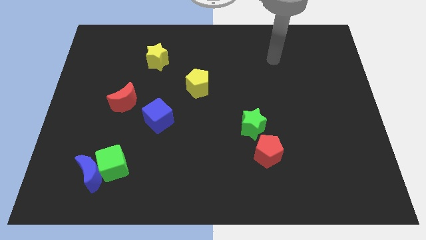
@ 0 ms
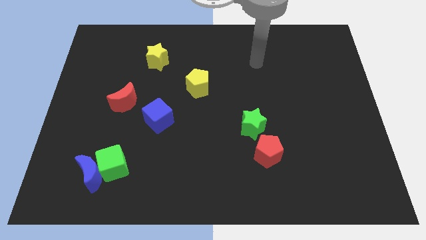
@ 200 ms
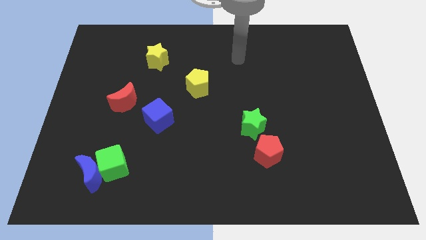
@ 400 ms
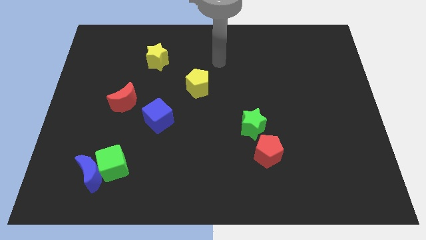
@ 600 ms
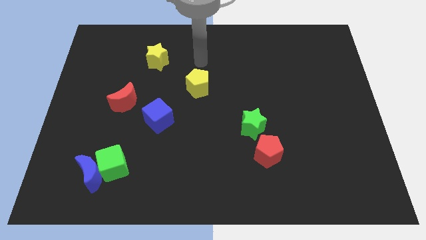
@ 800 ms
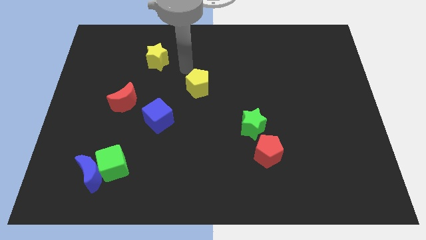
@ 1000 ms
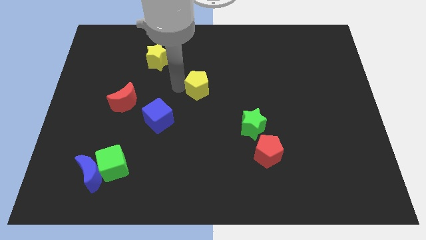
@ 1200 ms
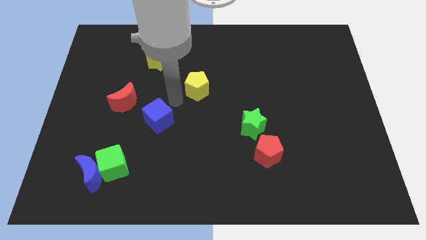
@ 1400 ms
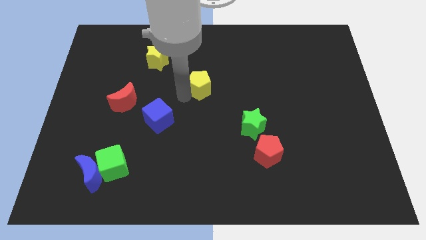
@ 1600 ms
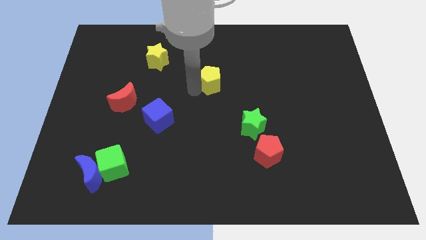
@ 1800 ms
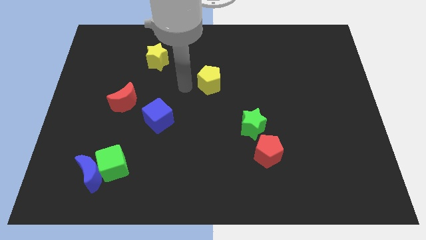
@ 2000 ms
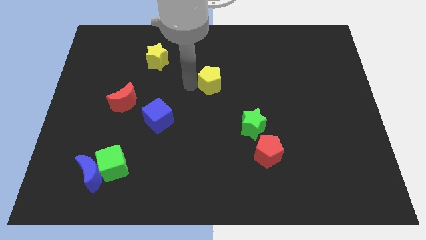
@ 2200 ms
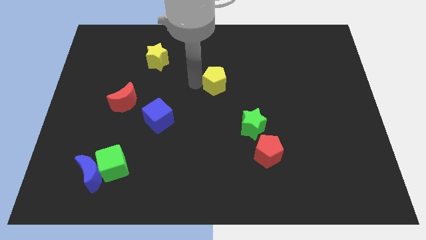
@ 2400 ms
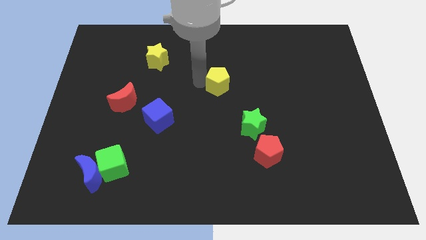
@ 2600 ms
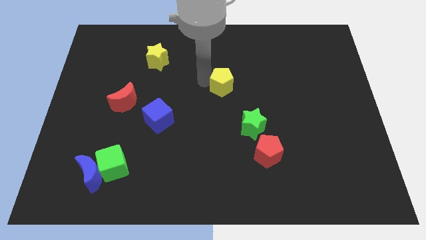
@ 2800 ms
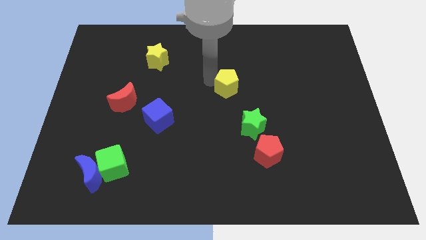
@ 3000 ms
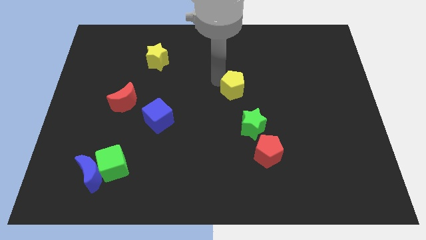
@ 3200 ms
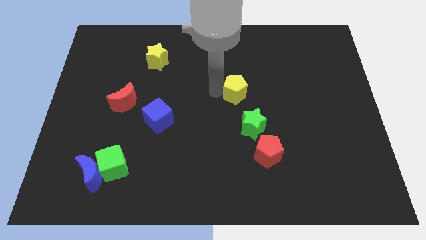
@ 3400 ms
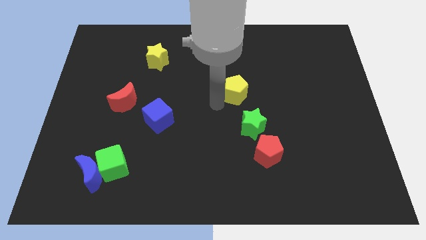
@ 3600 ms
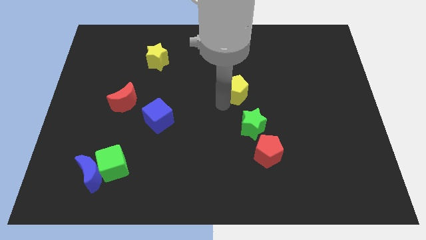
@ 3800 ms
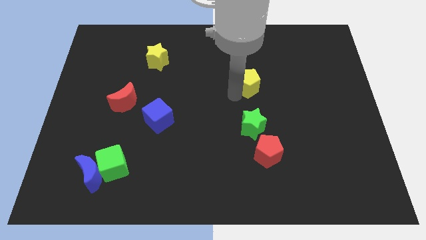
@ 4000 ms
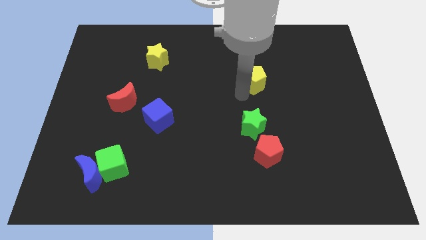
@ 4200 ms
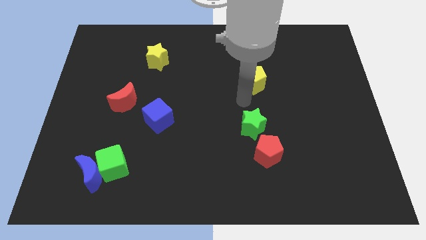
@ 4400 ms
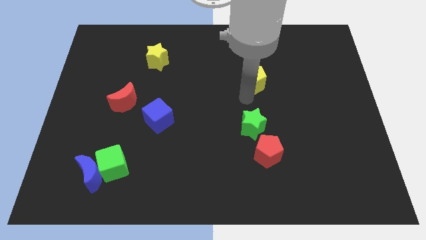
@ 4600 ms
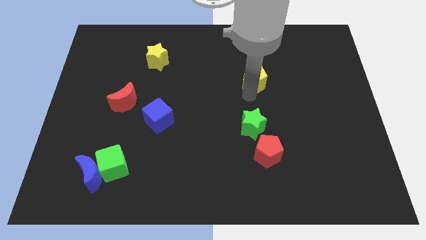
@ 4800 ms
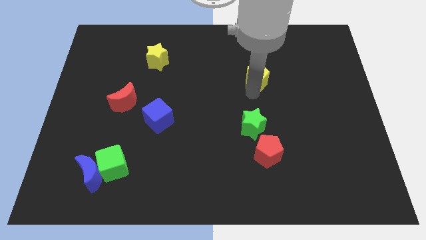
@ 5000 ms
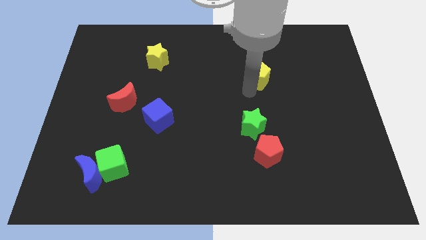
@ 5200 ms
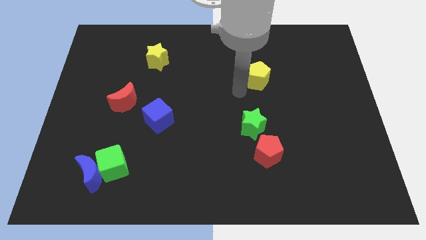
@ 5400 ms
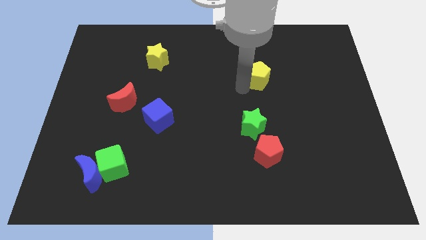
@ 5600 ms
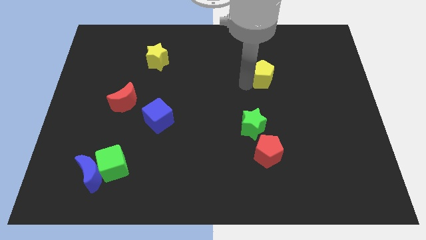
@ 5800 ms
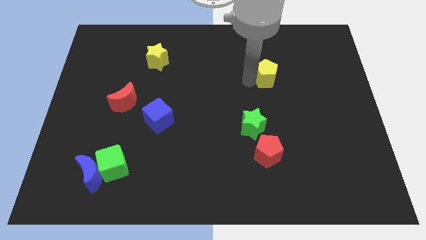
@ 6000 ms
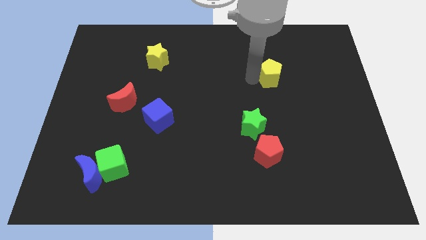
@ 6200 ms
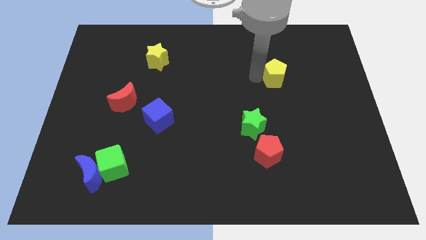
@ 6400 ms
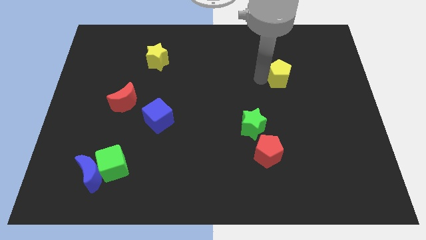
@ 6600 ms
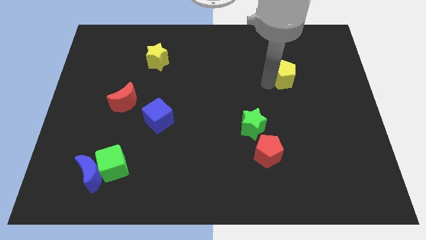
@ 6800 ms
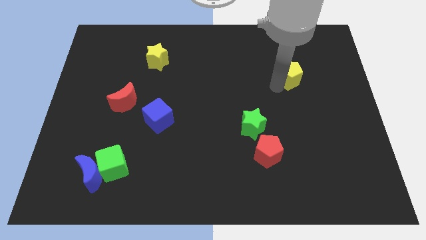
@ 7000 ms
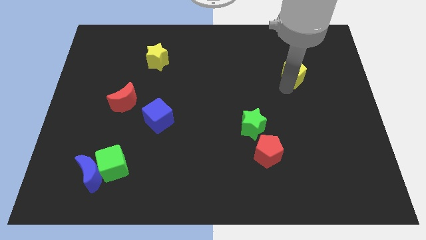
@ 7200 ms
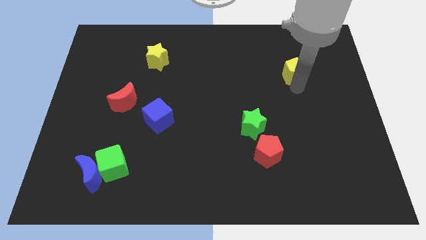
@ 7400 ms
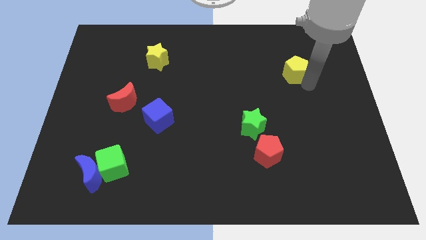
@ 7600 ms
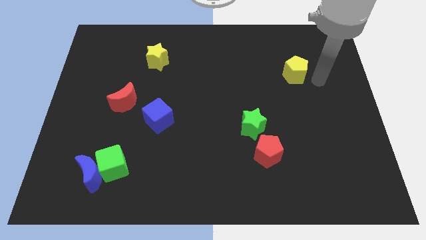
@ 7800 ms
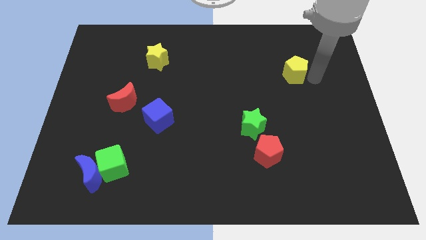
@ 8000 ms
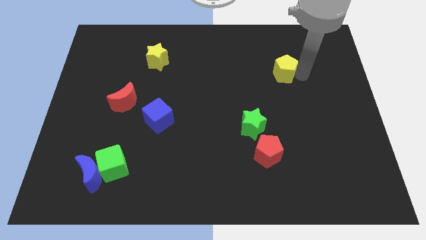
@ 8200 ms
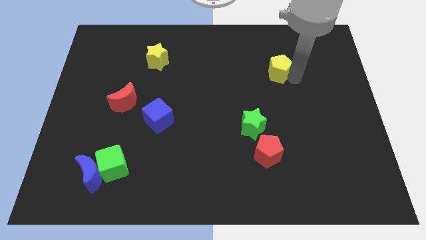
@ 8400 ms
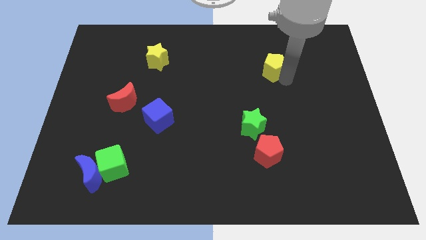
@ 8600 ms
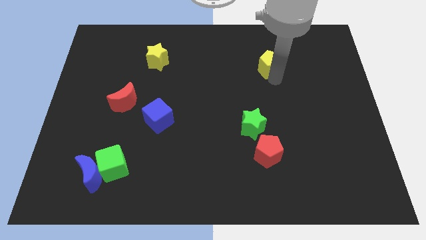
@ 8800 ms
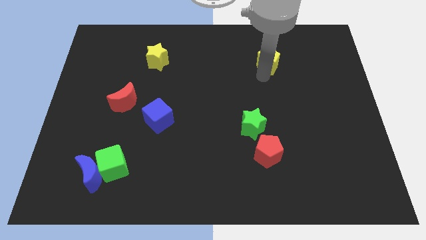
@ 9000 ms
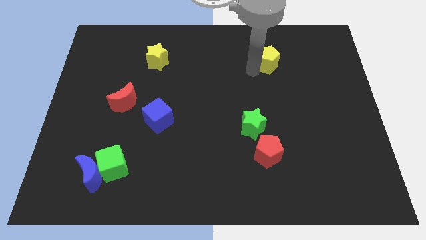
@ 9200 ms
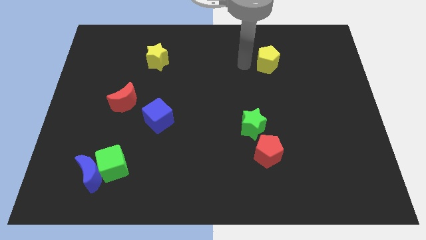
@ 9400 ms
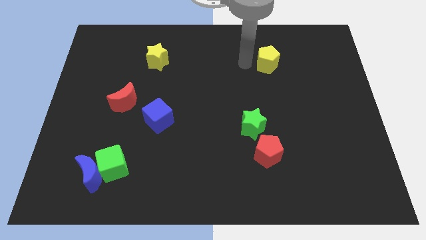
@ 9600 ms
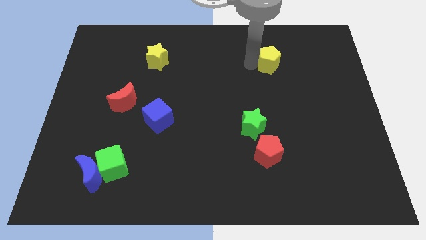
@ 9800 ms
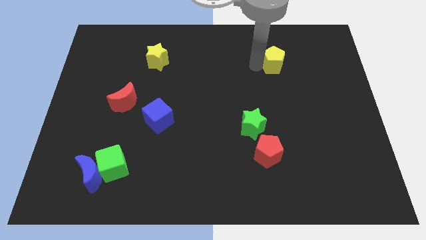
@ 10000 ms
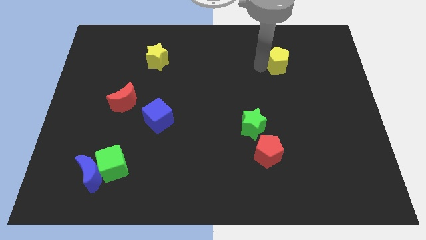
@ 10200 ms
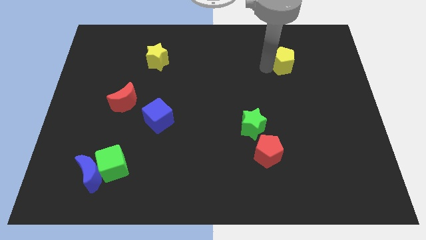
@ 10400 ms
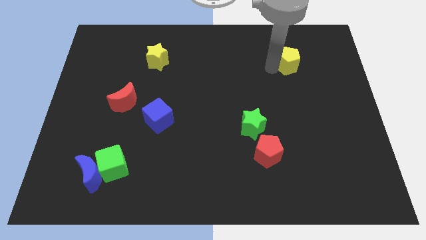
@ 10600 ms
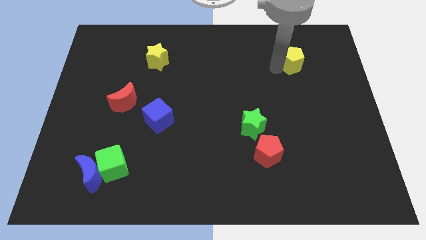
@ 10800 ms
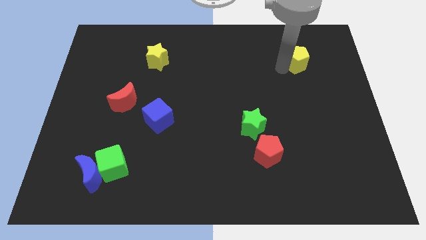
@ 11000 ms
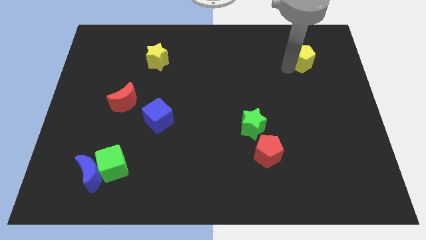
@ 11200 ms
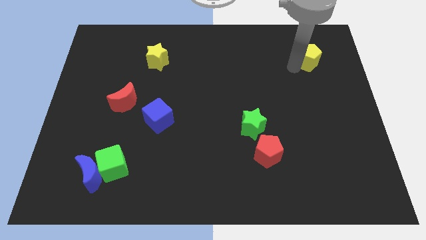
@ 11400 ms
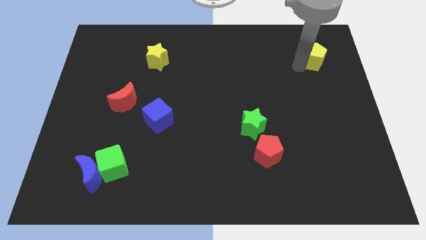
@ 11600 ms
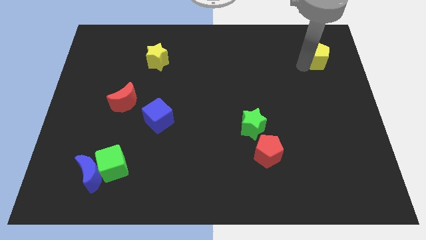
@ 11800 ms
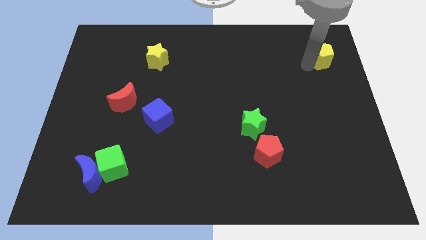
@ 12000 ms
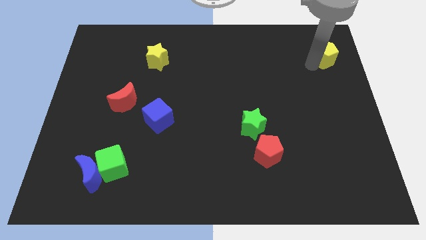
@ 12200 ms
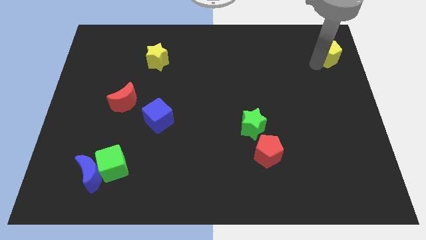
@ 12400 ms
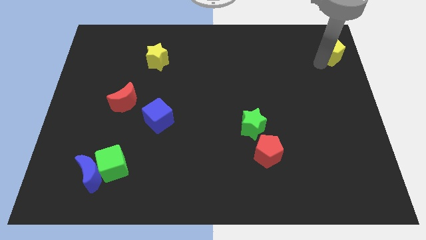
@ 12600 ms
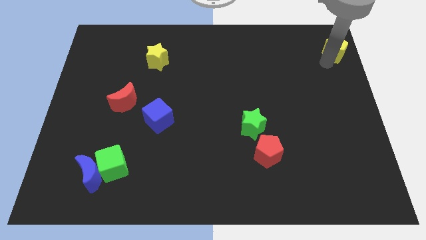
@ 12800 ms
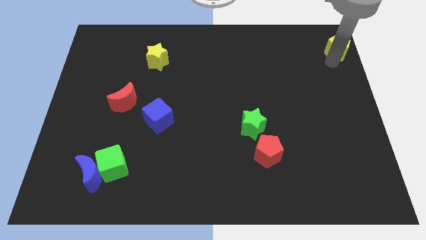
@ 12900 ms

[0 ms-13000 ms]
slide the yellow pentagon to the top right
